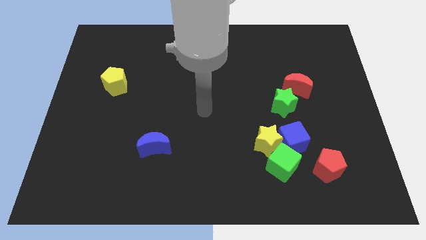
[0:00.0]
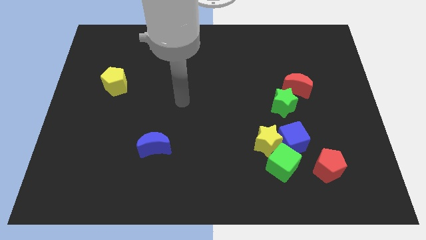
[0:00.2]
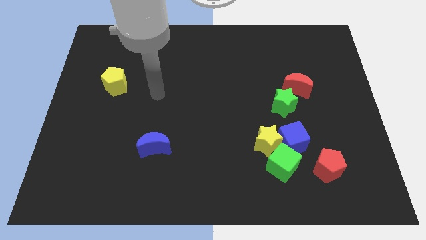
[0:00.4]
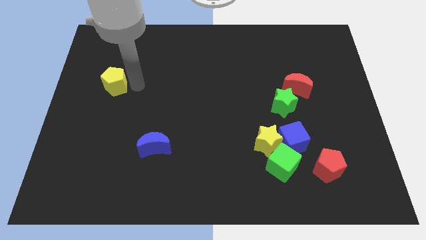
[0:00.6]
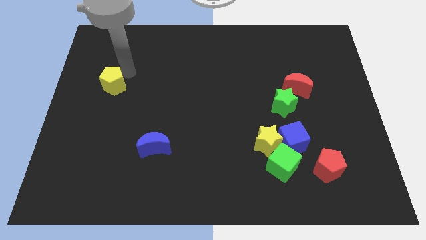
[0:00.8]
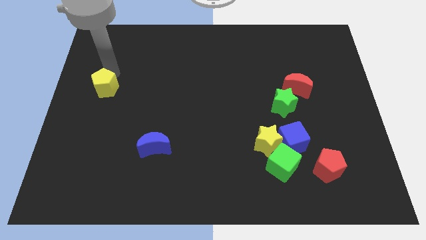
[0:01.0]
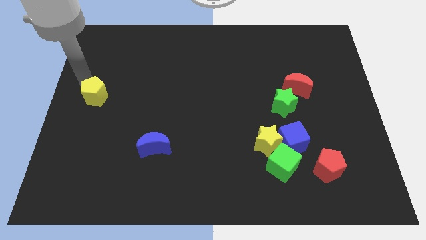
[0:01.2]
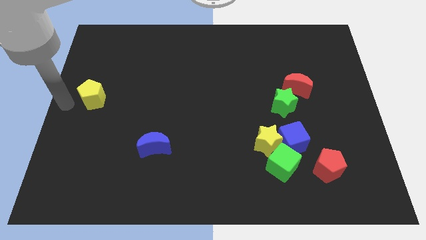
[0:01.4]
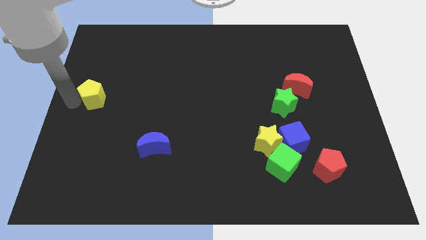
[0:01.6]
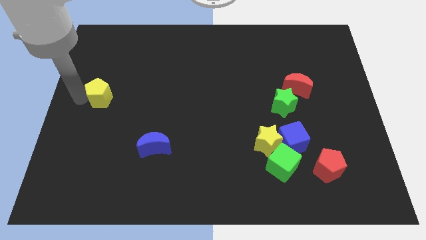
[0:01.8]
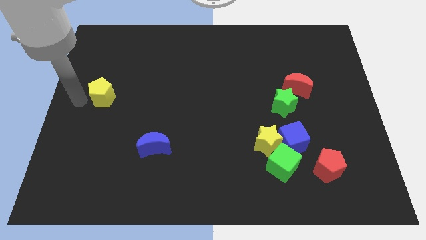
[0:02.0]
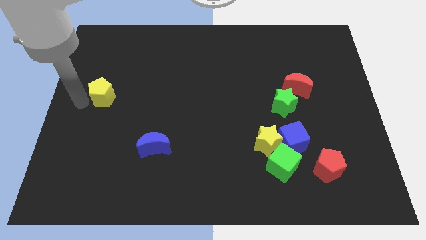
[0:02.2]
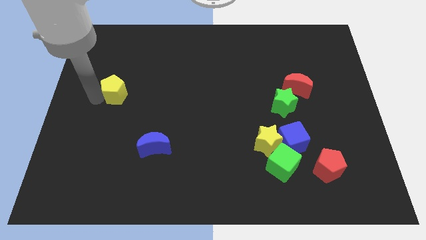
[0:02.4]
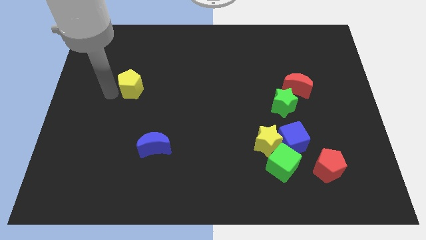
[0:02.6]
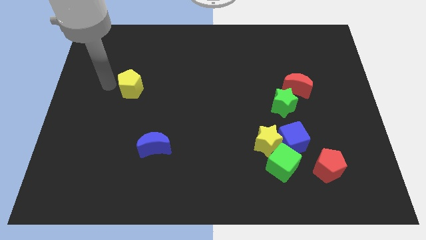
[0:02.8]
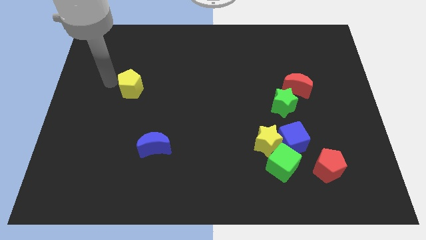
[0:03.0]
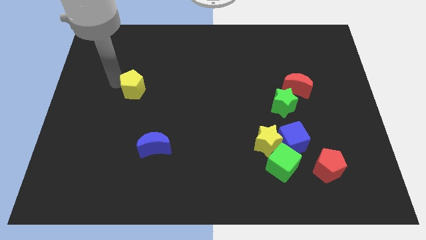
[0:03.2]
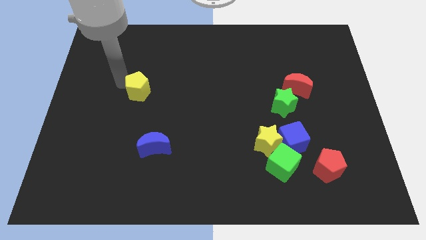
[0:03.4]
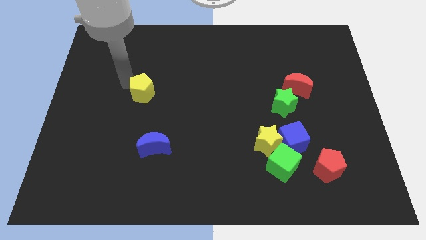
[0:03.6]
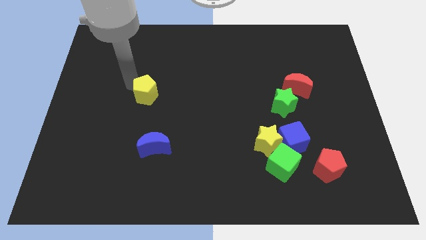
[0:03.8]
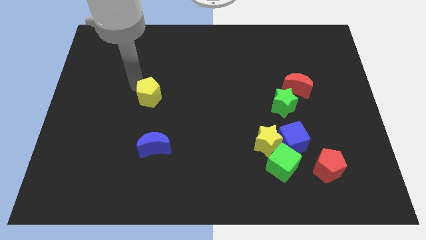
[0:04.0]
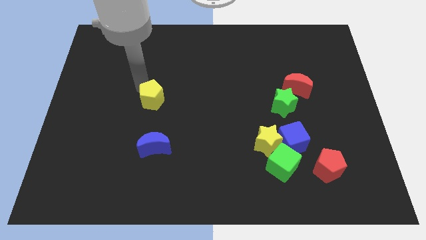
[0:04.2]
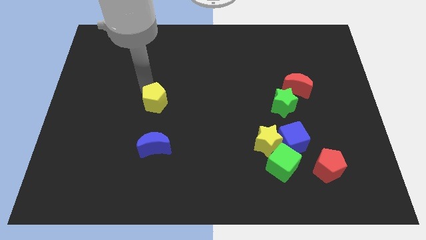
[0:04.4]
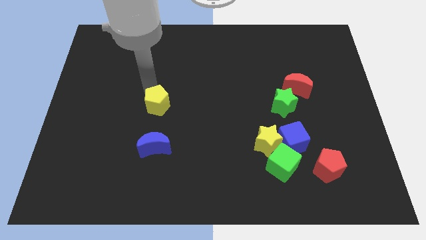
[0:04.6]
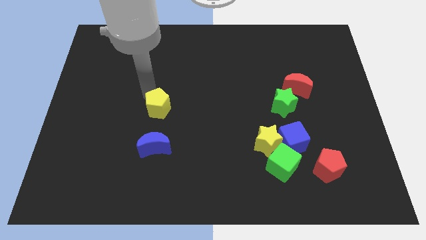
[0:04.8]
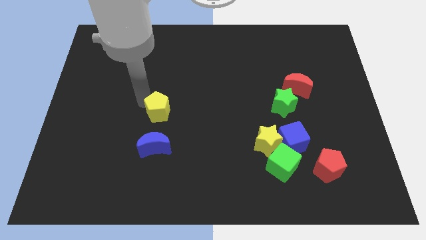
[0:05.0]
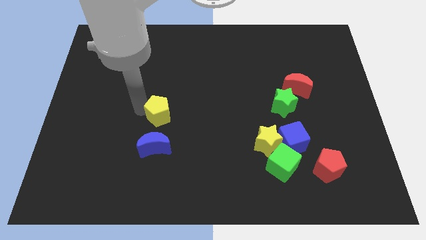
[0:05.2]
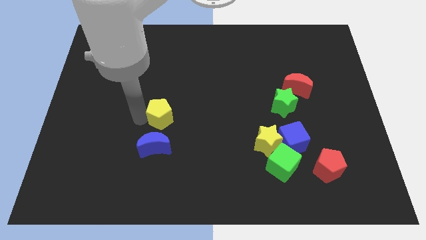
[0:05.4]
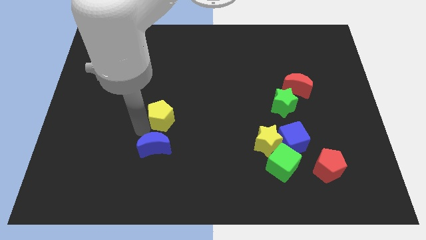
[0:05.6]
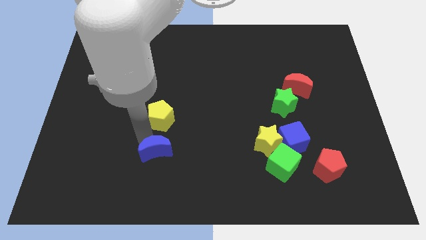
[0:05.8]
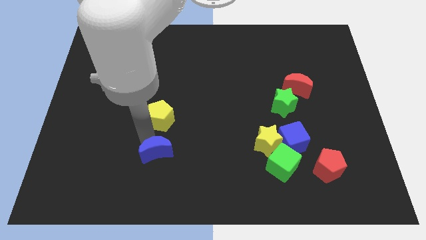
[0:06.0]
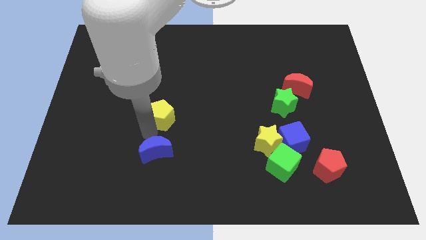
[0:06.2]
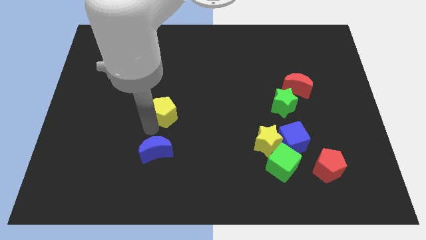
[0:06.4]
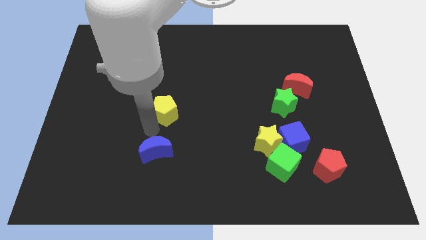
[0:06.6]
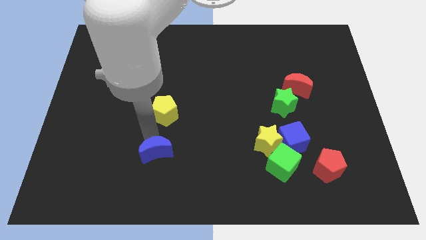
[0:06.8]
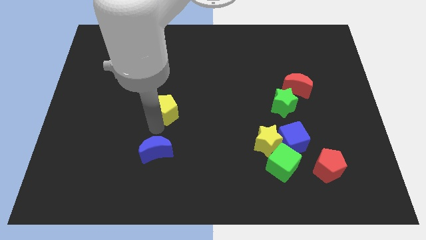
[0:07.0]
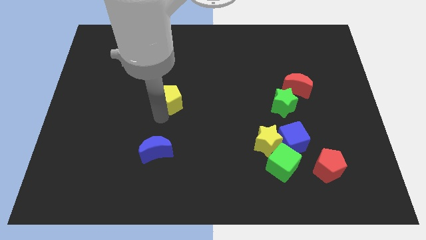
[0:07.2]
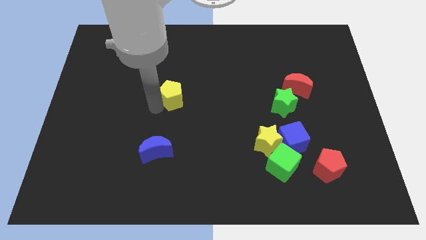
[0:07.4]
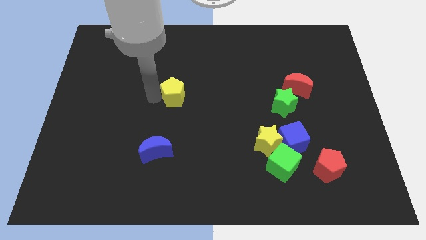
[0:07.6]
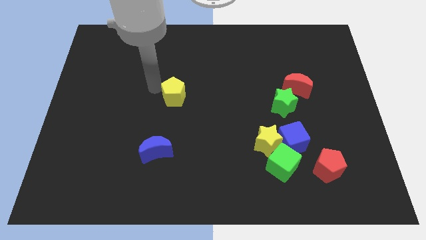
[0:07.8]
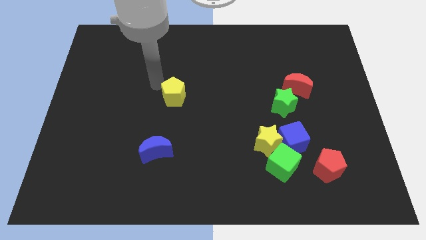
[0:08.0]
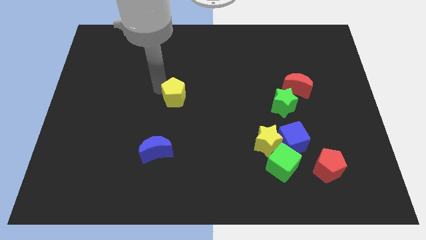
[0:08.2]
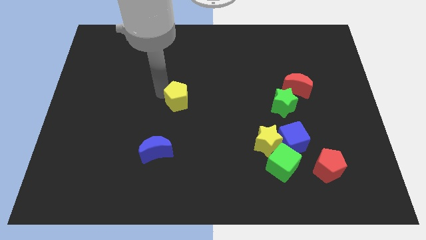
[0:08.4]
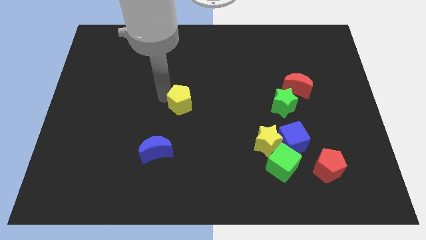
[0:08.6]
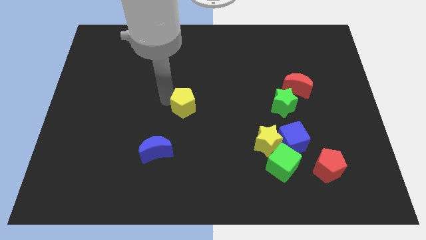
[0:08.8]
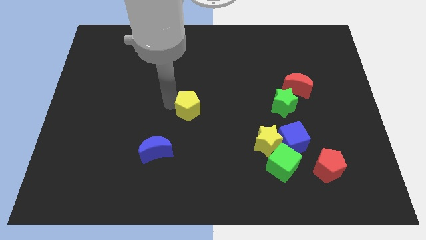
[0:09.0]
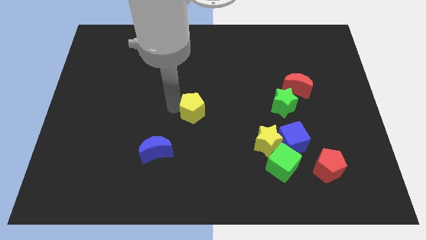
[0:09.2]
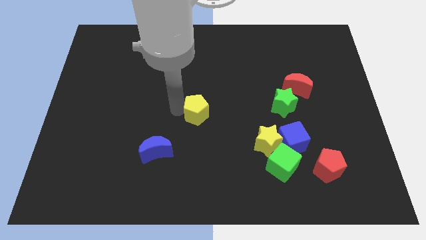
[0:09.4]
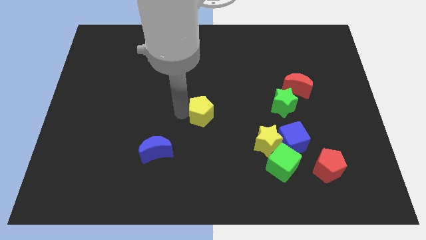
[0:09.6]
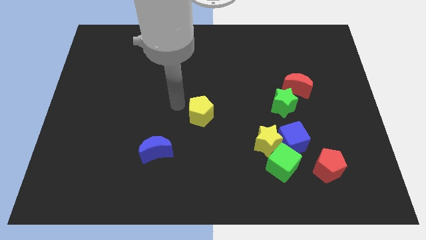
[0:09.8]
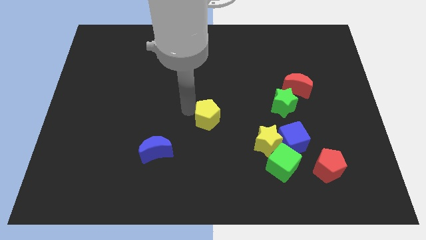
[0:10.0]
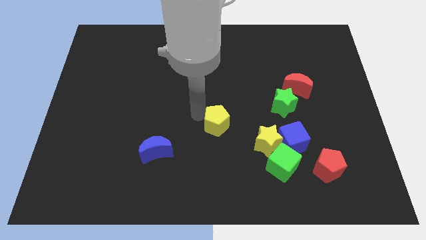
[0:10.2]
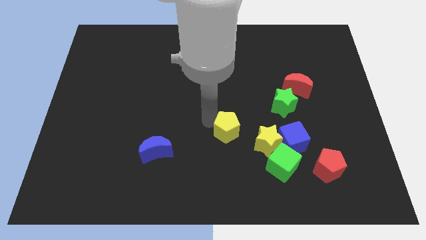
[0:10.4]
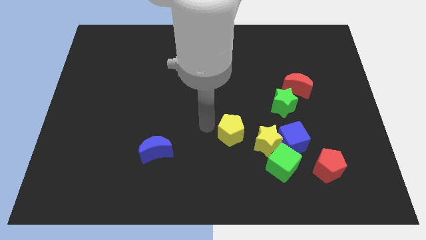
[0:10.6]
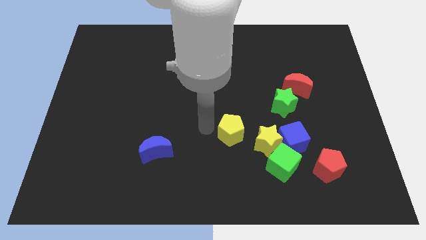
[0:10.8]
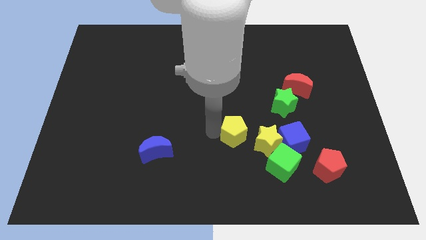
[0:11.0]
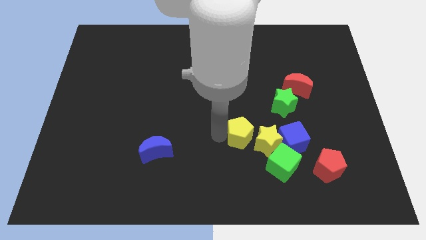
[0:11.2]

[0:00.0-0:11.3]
put the yellow pentagon next to the yellow star
